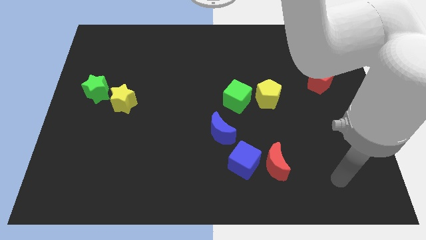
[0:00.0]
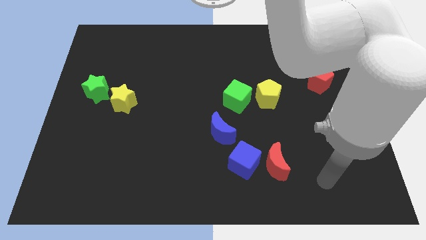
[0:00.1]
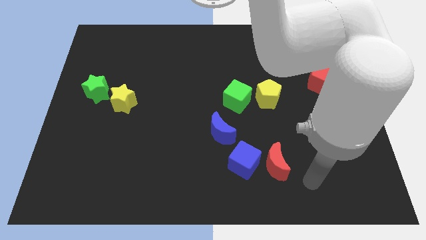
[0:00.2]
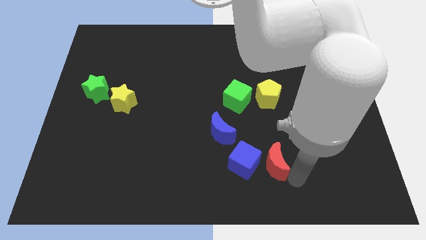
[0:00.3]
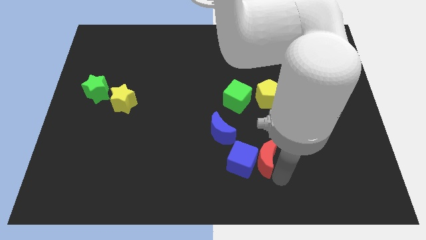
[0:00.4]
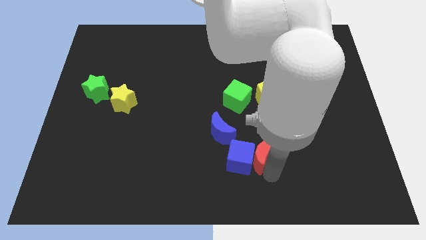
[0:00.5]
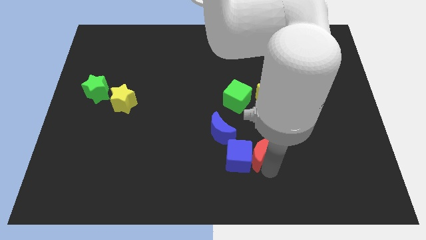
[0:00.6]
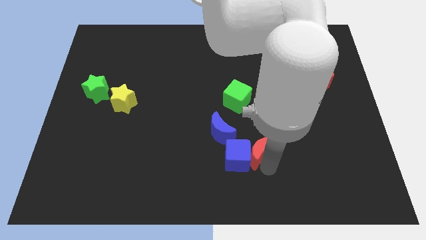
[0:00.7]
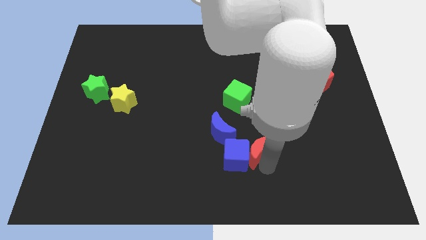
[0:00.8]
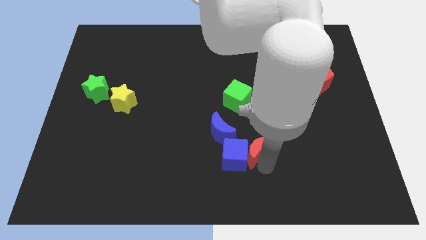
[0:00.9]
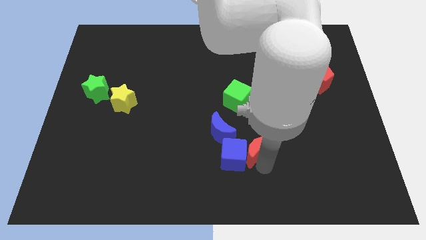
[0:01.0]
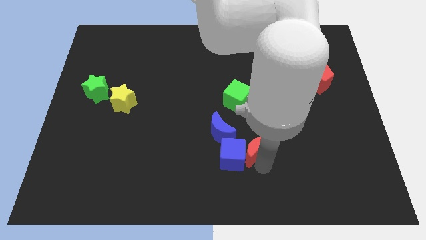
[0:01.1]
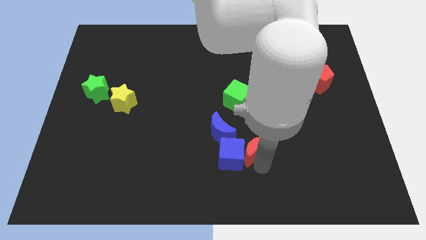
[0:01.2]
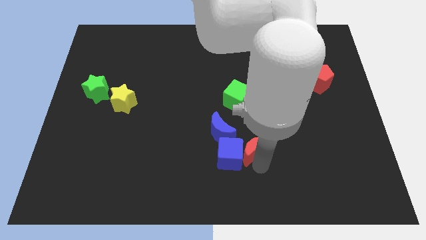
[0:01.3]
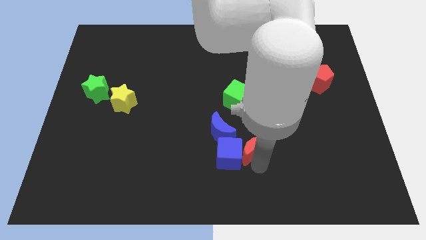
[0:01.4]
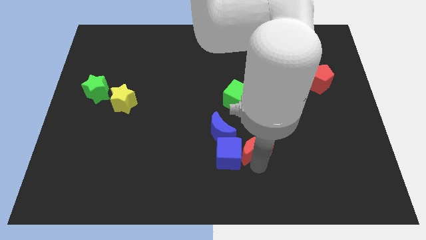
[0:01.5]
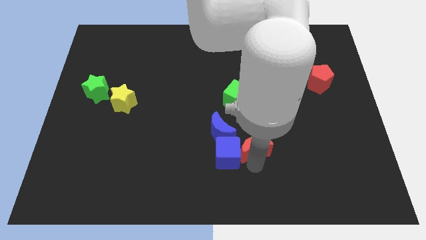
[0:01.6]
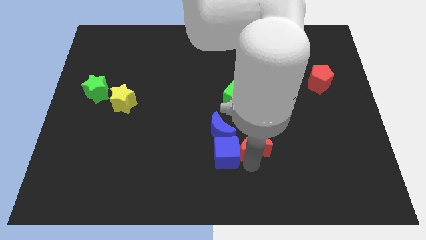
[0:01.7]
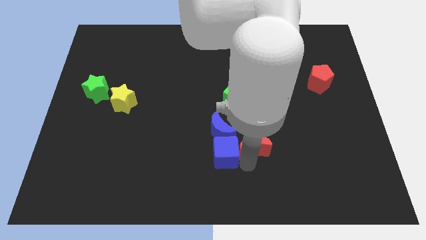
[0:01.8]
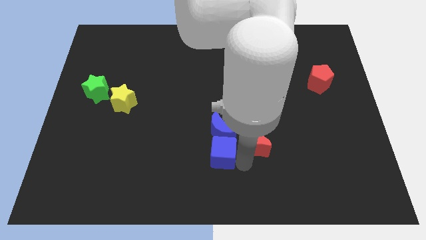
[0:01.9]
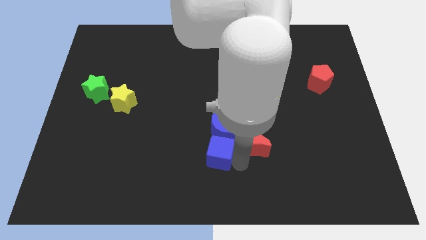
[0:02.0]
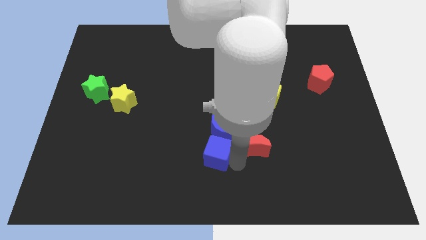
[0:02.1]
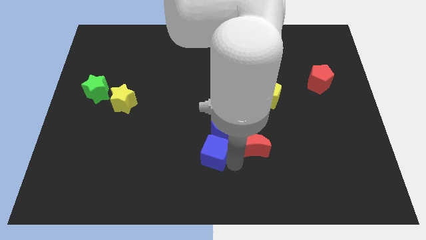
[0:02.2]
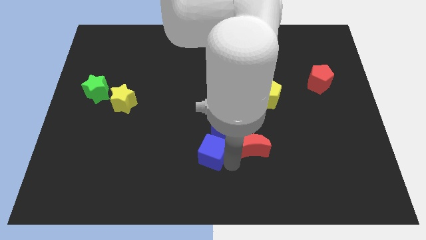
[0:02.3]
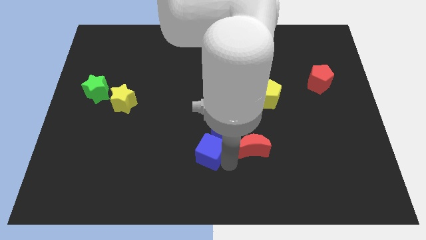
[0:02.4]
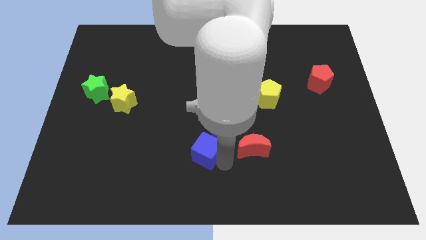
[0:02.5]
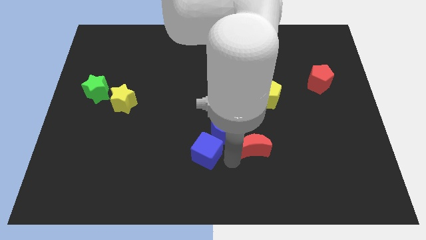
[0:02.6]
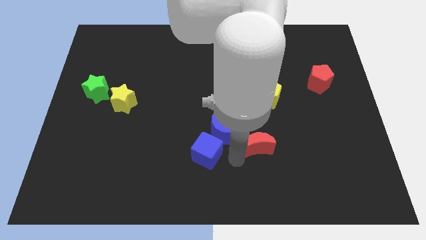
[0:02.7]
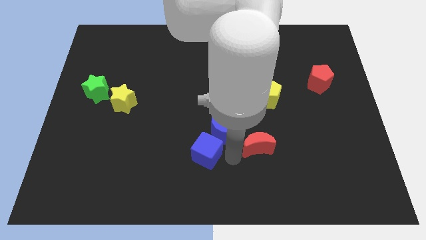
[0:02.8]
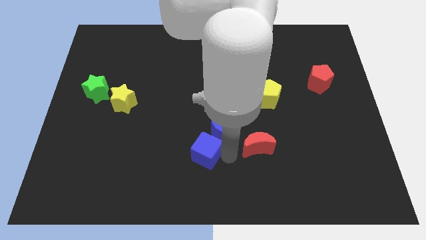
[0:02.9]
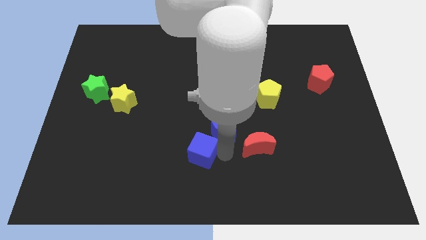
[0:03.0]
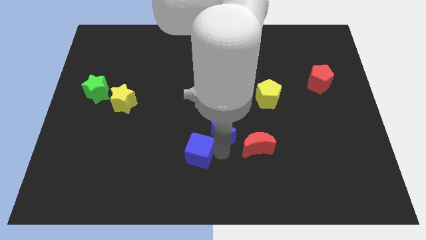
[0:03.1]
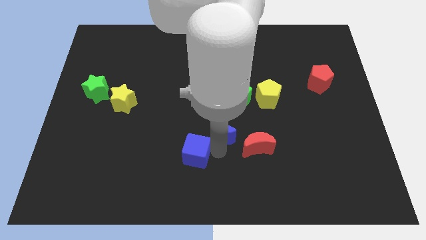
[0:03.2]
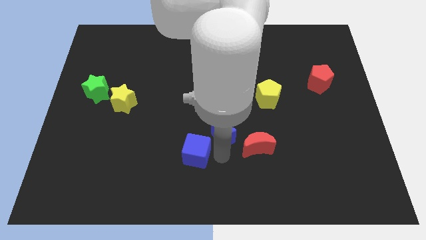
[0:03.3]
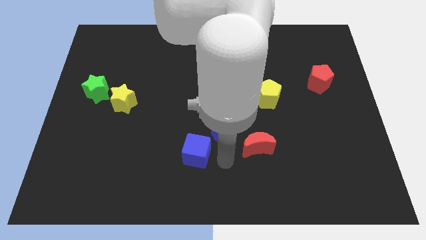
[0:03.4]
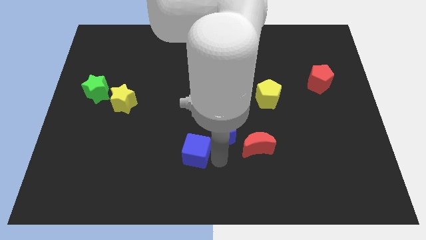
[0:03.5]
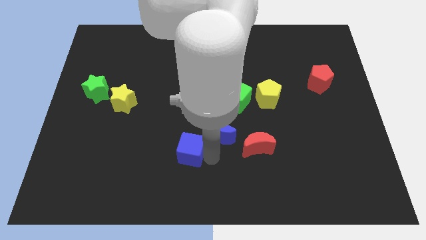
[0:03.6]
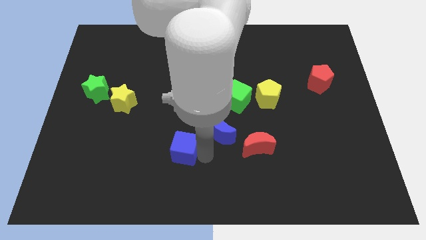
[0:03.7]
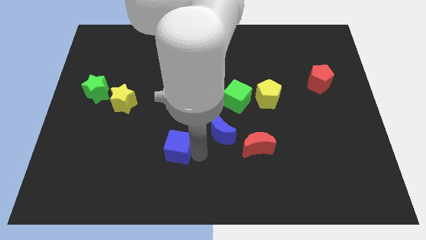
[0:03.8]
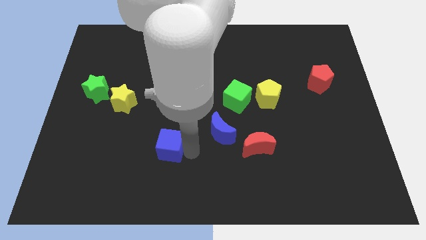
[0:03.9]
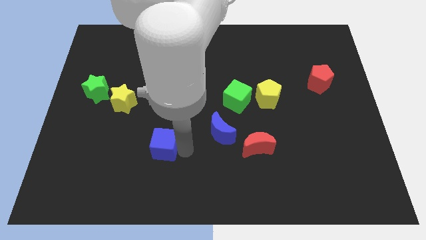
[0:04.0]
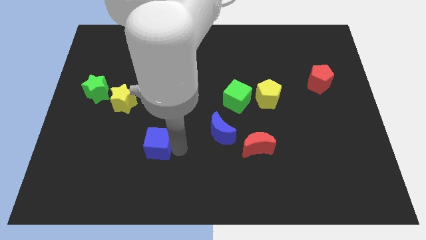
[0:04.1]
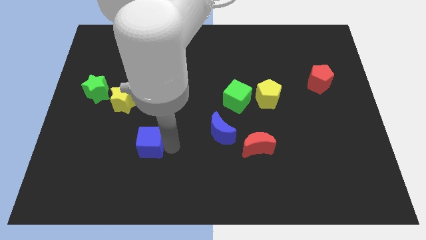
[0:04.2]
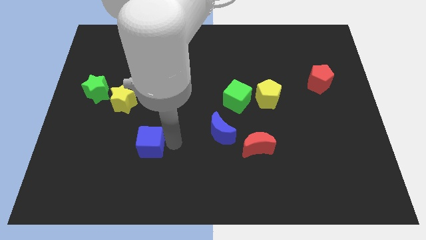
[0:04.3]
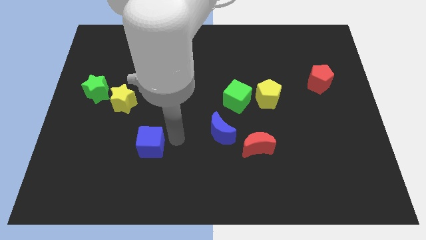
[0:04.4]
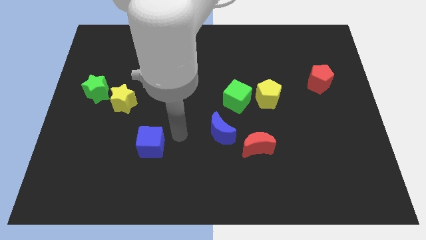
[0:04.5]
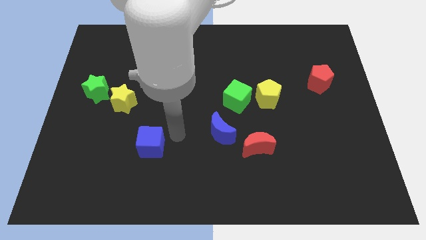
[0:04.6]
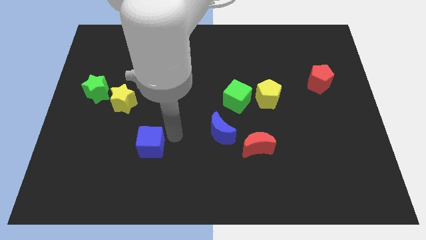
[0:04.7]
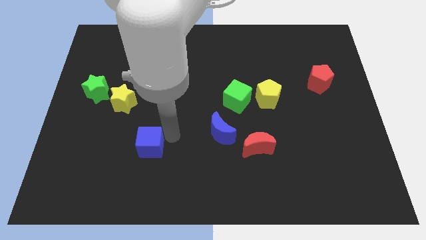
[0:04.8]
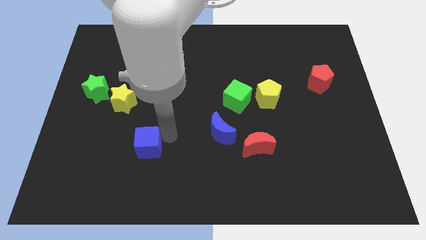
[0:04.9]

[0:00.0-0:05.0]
slide the blue cube to the left

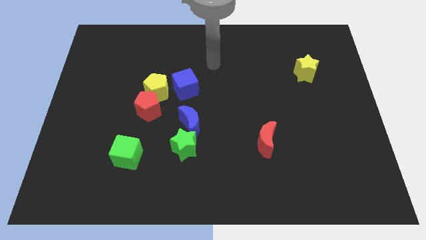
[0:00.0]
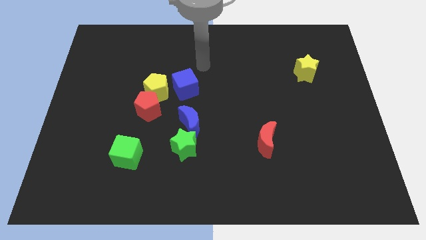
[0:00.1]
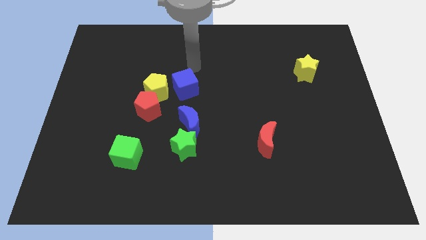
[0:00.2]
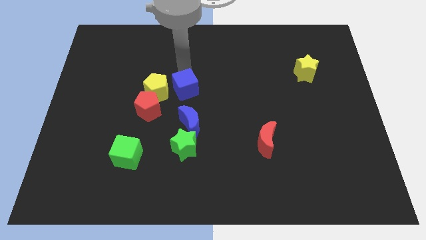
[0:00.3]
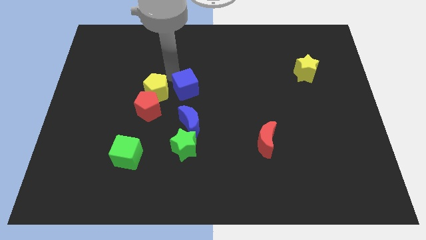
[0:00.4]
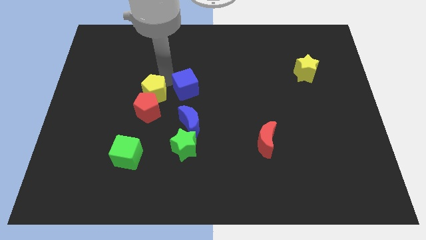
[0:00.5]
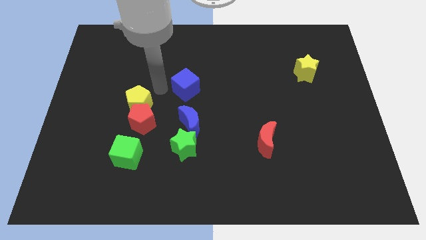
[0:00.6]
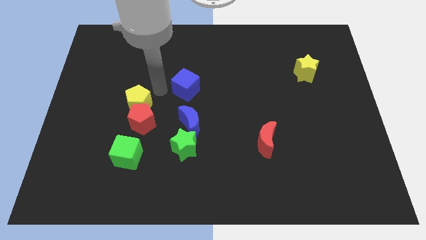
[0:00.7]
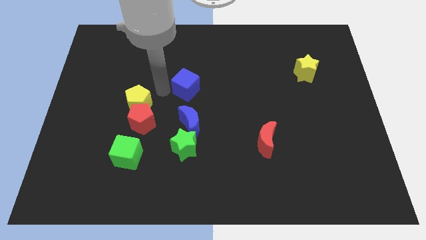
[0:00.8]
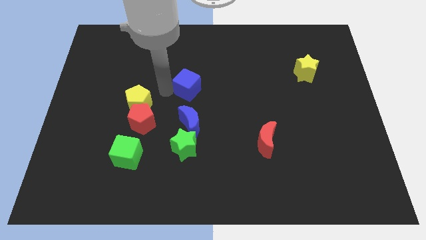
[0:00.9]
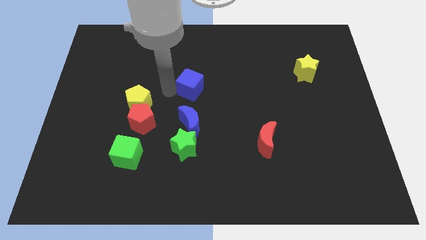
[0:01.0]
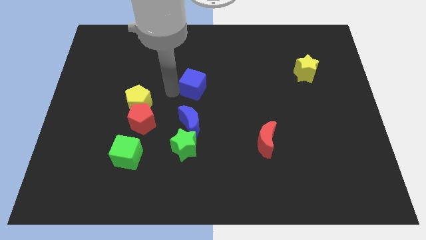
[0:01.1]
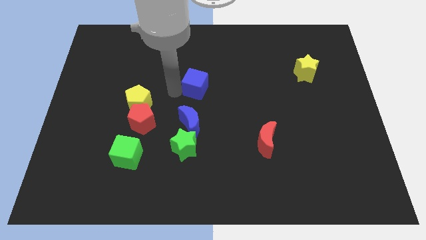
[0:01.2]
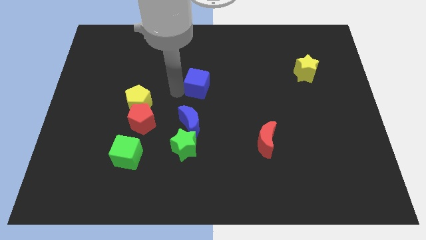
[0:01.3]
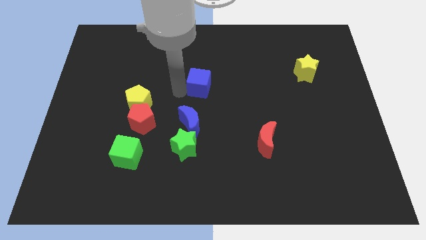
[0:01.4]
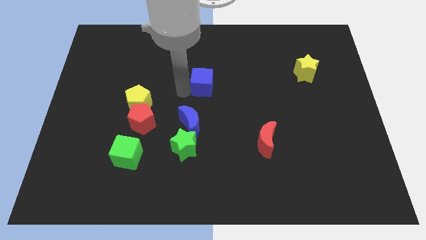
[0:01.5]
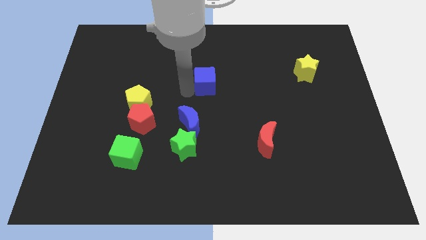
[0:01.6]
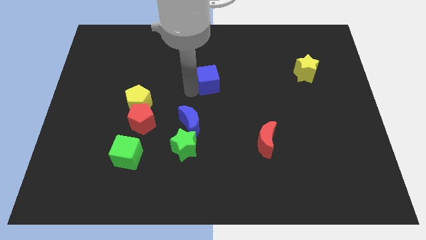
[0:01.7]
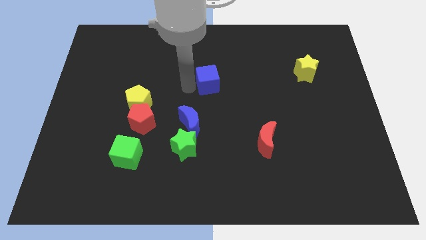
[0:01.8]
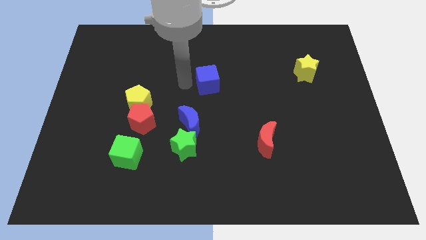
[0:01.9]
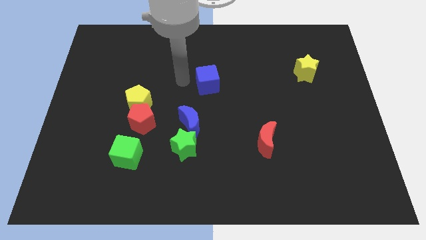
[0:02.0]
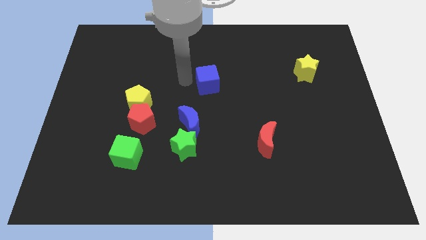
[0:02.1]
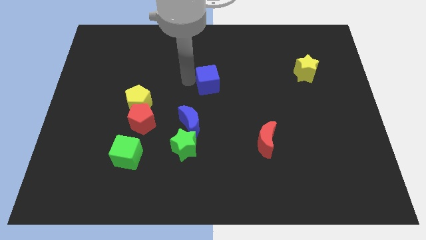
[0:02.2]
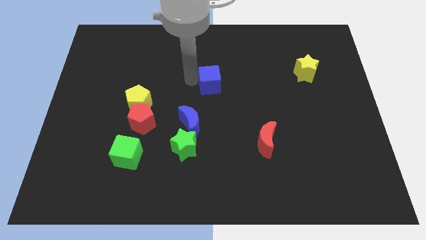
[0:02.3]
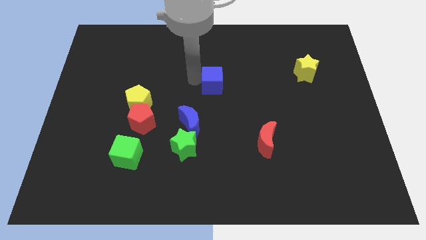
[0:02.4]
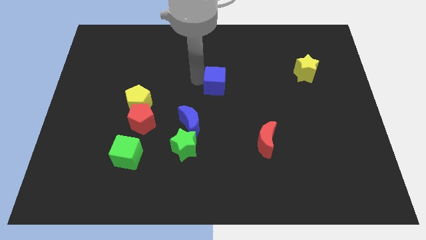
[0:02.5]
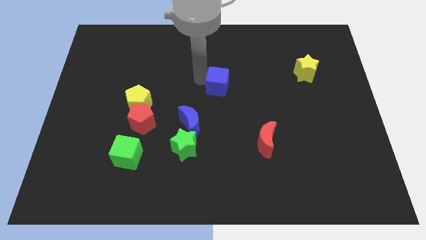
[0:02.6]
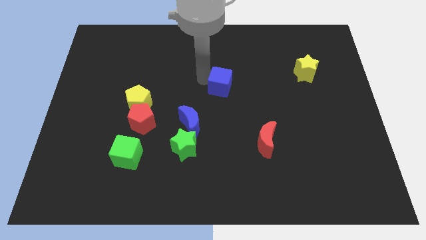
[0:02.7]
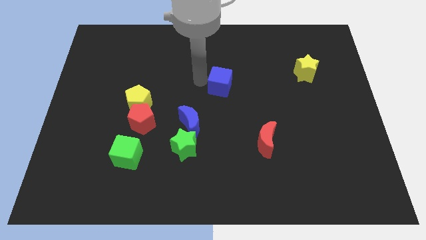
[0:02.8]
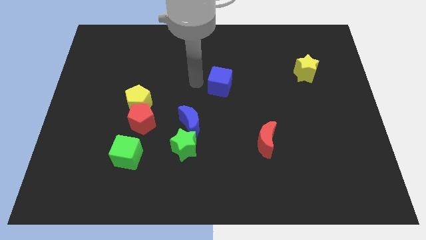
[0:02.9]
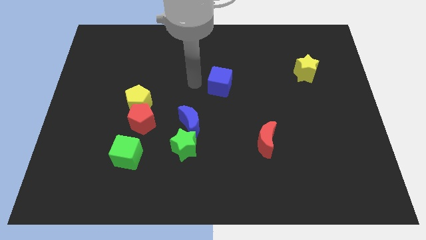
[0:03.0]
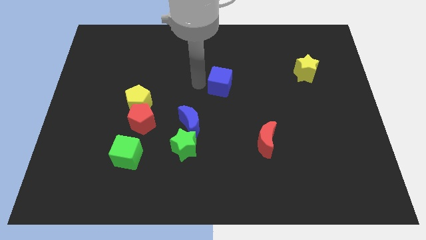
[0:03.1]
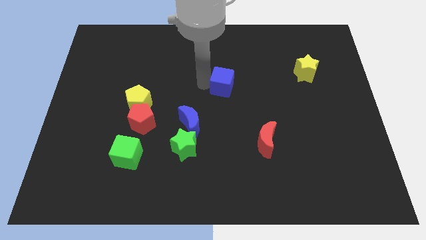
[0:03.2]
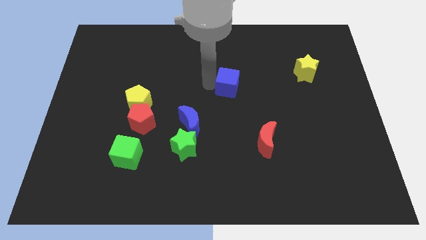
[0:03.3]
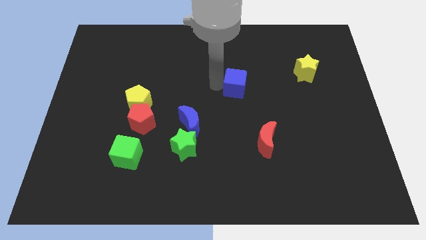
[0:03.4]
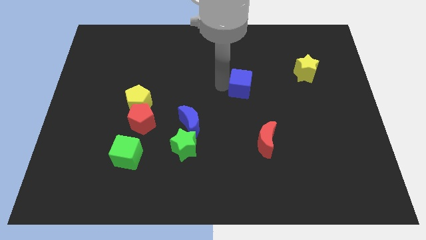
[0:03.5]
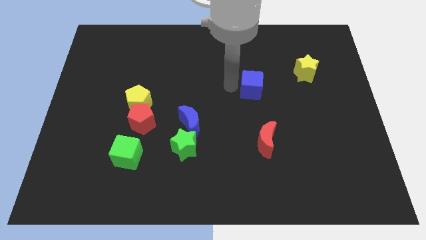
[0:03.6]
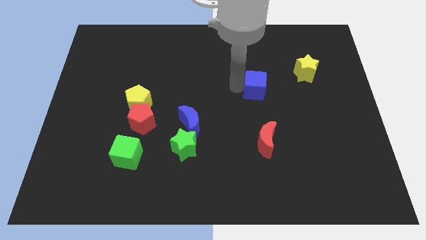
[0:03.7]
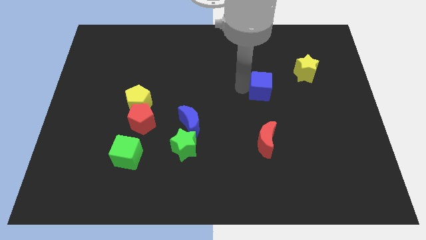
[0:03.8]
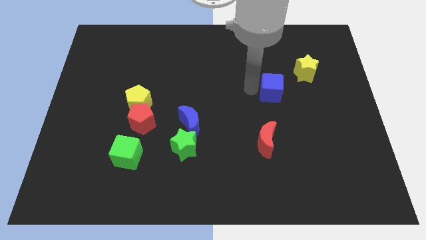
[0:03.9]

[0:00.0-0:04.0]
push the blue cube to the right
